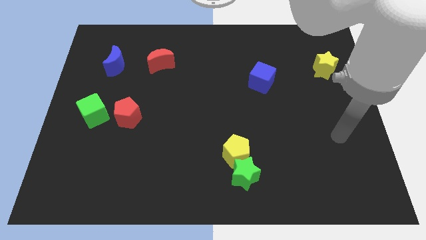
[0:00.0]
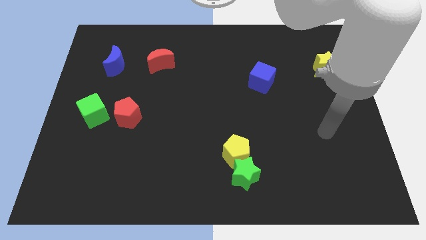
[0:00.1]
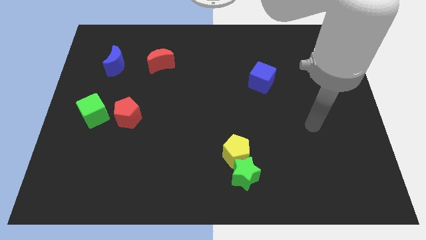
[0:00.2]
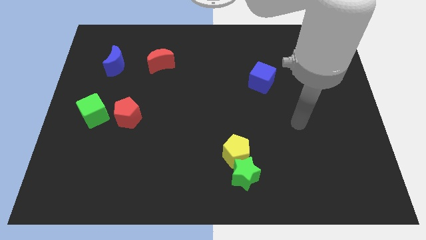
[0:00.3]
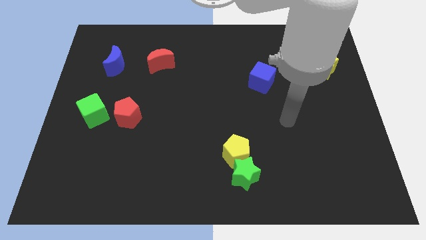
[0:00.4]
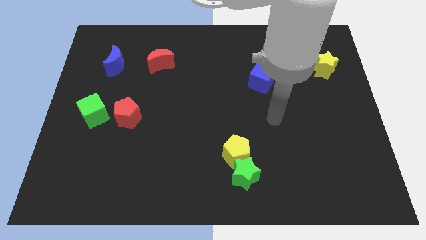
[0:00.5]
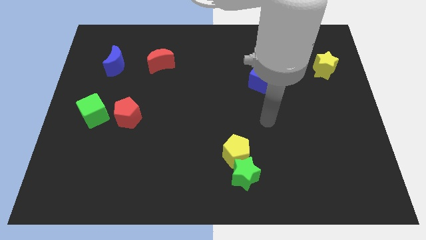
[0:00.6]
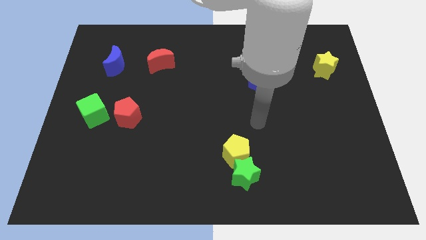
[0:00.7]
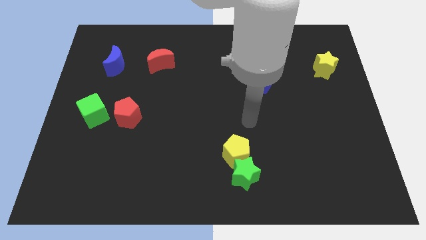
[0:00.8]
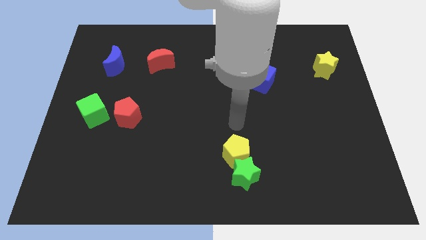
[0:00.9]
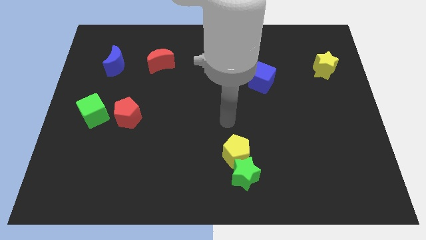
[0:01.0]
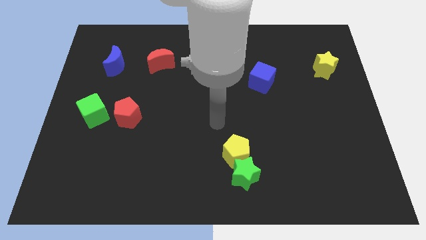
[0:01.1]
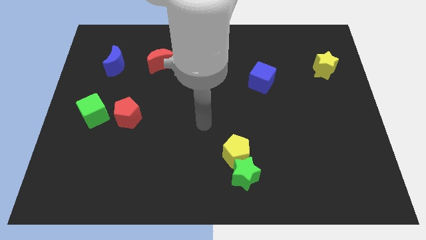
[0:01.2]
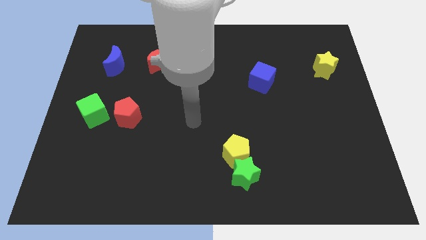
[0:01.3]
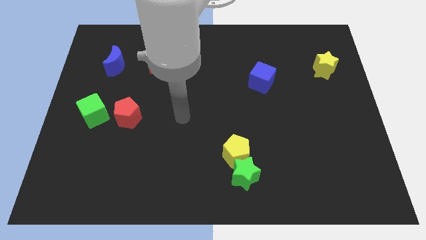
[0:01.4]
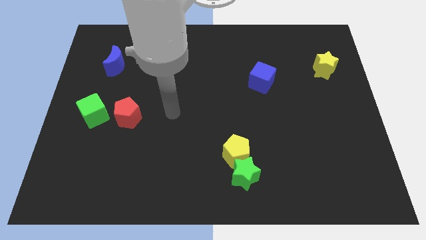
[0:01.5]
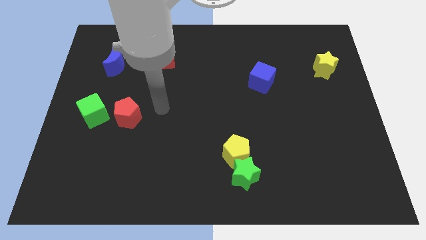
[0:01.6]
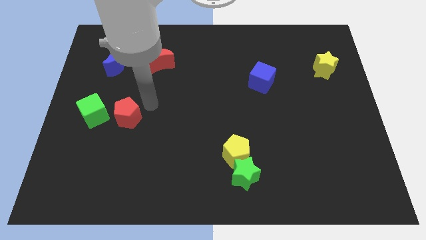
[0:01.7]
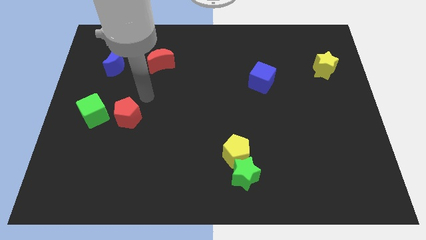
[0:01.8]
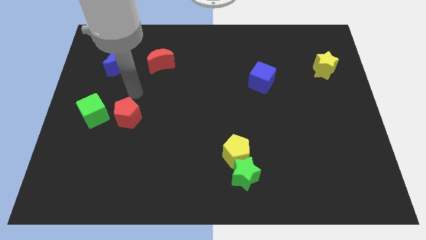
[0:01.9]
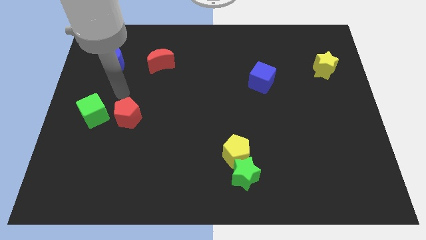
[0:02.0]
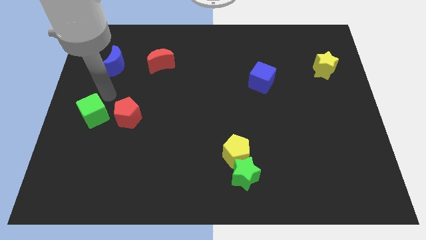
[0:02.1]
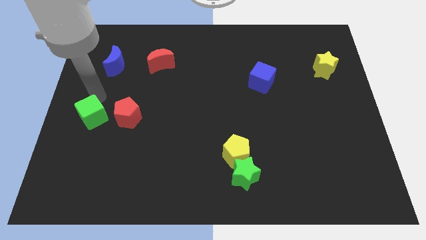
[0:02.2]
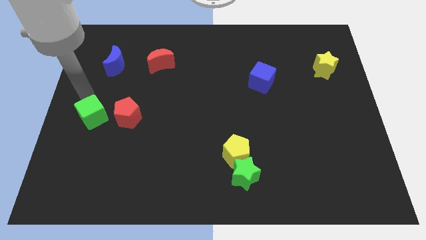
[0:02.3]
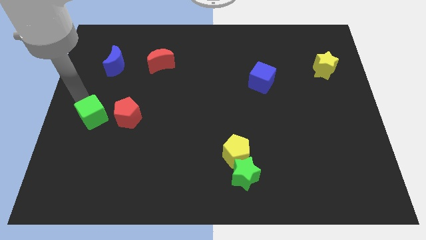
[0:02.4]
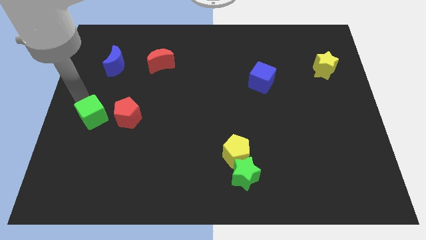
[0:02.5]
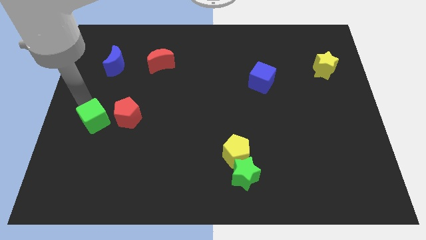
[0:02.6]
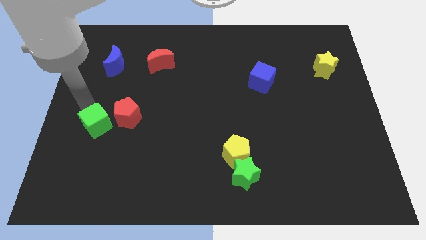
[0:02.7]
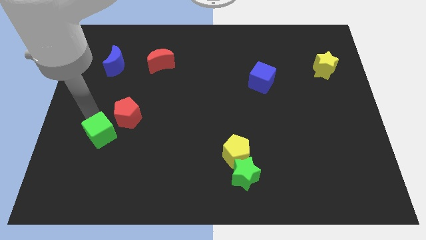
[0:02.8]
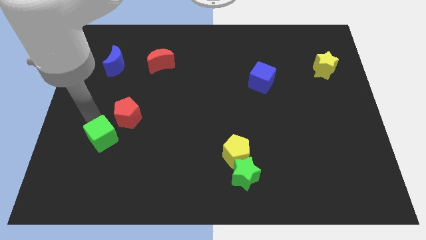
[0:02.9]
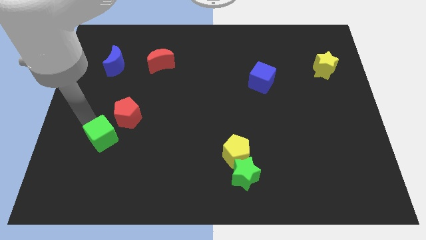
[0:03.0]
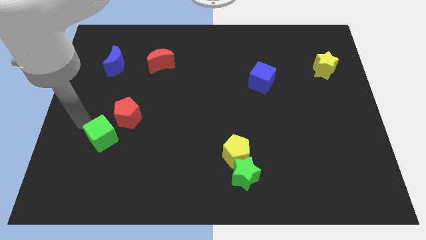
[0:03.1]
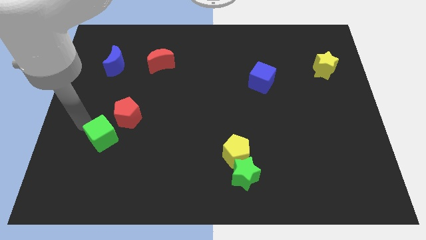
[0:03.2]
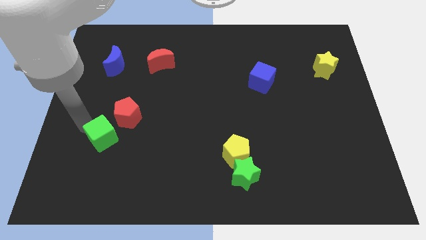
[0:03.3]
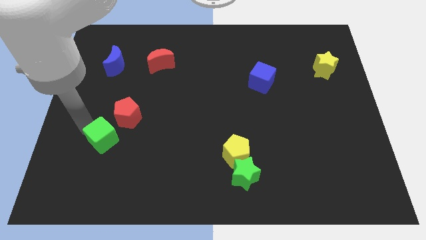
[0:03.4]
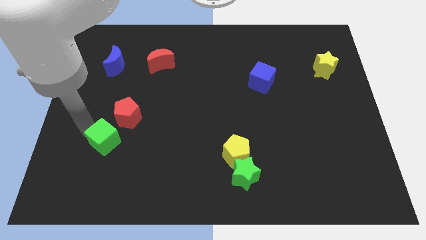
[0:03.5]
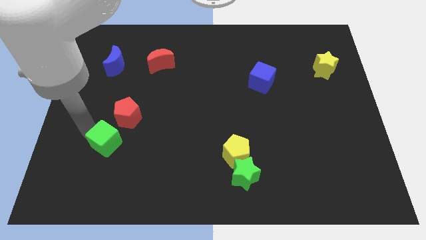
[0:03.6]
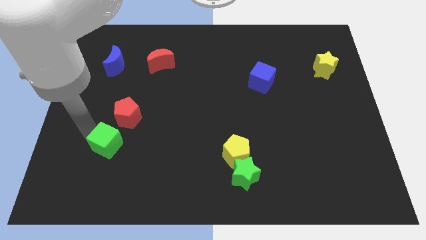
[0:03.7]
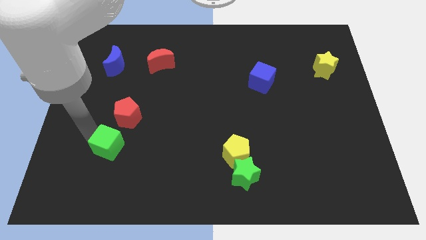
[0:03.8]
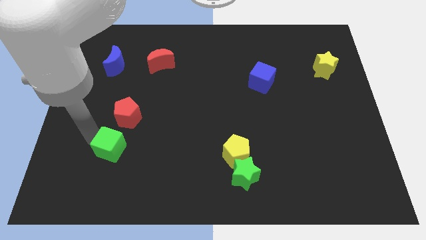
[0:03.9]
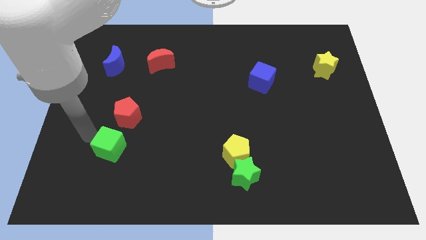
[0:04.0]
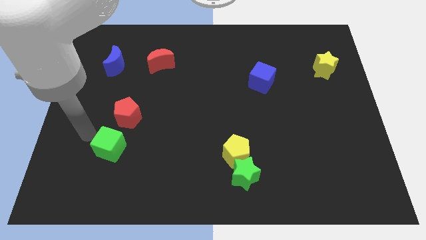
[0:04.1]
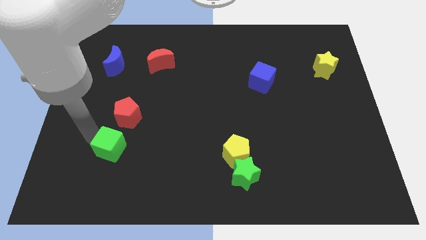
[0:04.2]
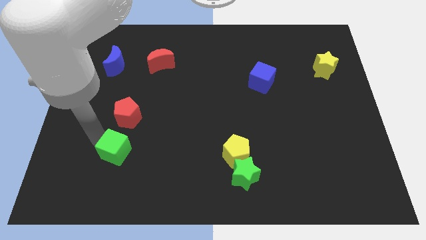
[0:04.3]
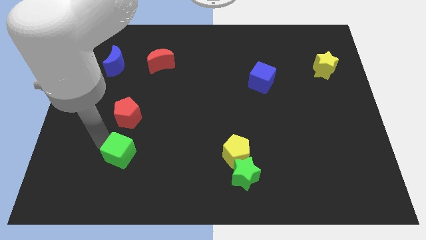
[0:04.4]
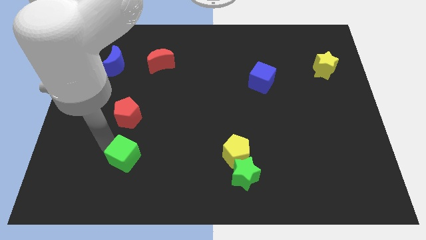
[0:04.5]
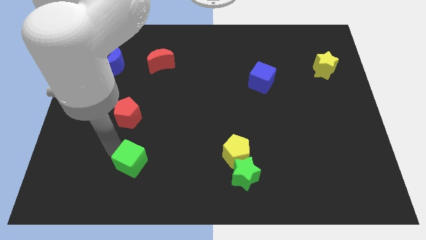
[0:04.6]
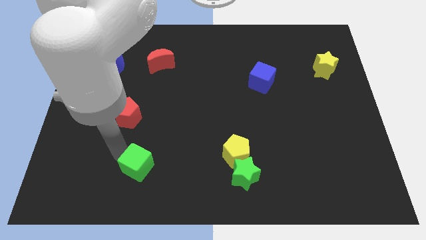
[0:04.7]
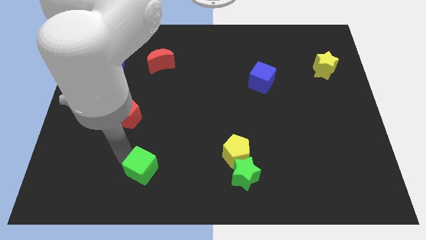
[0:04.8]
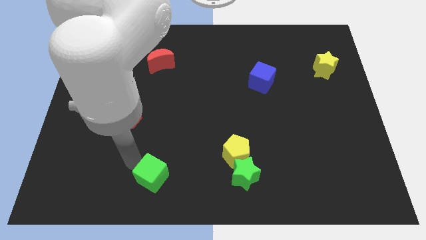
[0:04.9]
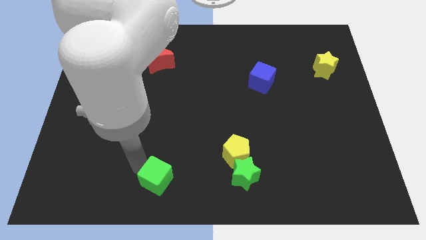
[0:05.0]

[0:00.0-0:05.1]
put the green cube to the bottom side

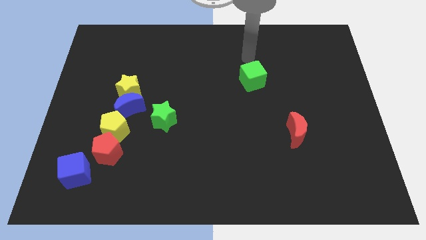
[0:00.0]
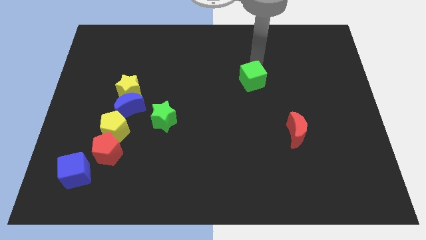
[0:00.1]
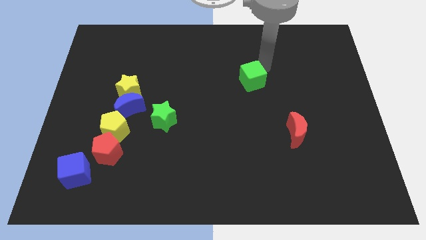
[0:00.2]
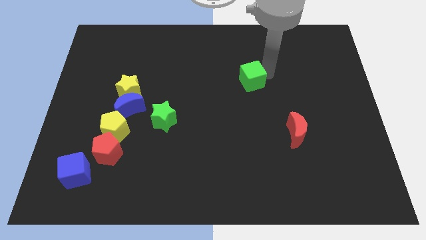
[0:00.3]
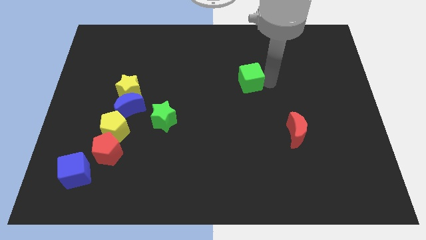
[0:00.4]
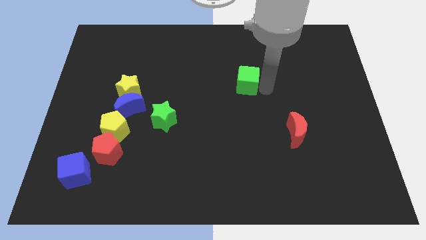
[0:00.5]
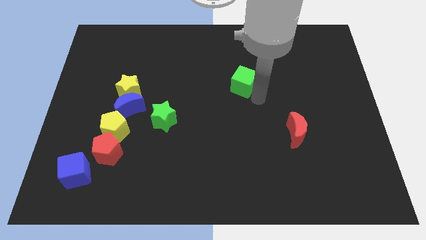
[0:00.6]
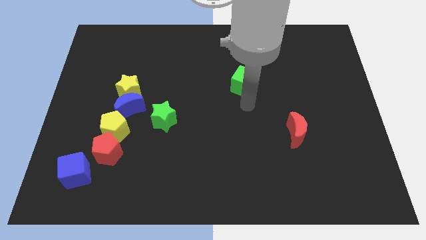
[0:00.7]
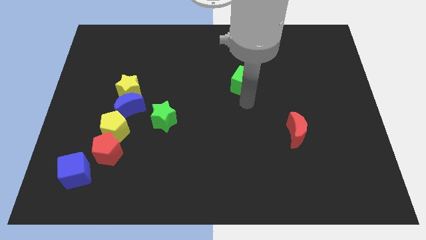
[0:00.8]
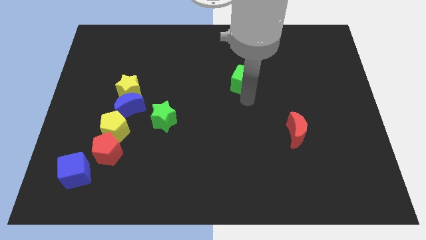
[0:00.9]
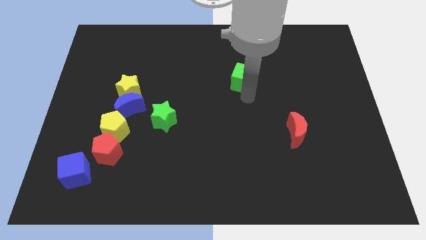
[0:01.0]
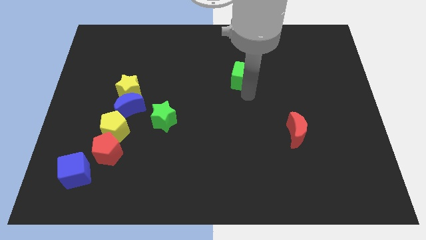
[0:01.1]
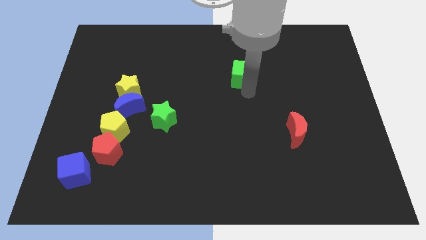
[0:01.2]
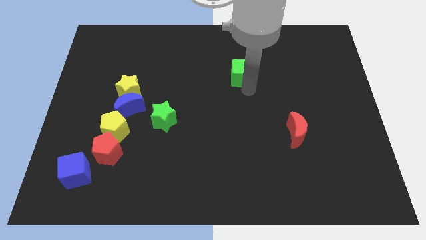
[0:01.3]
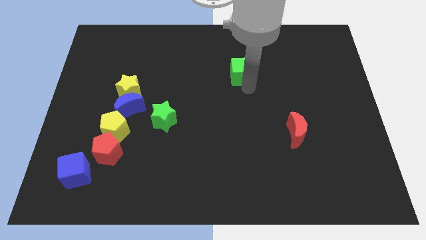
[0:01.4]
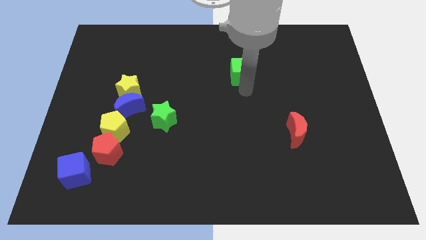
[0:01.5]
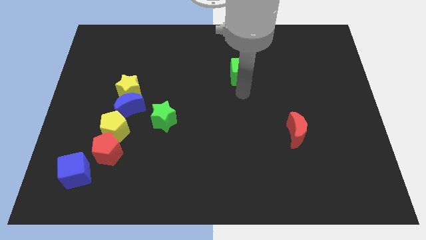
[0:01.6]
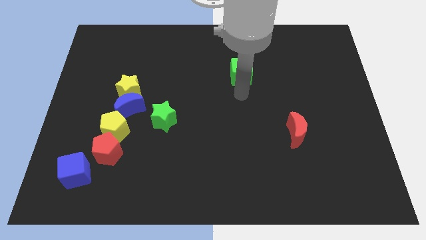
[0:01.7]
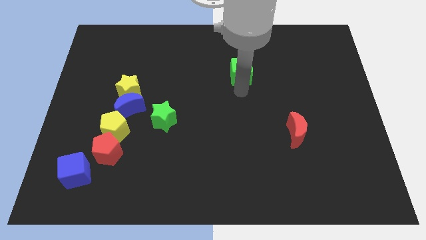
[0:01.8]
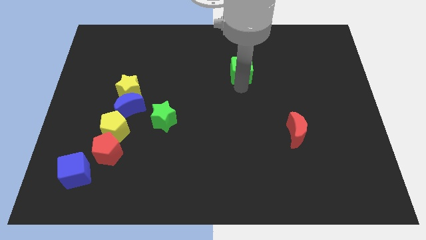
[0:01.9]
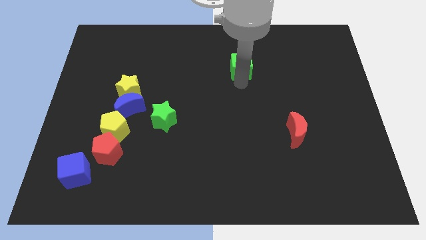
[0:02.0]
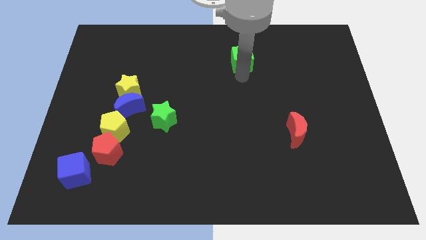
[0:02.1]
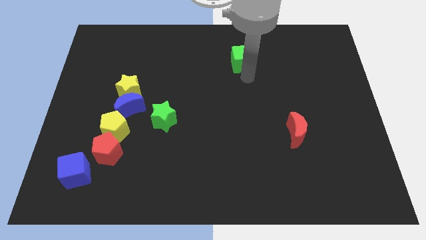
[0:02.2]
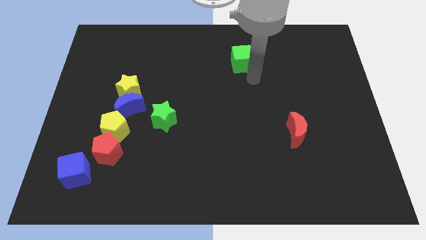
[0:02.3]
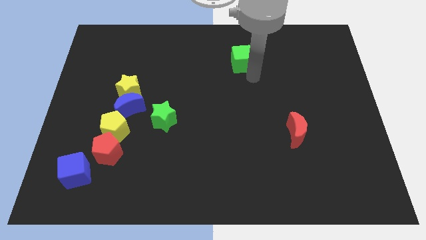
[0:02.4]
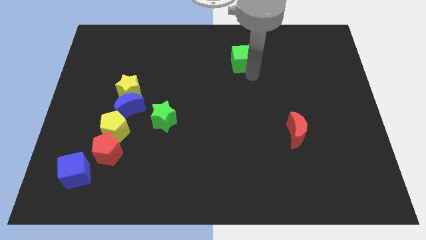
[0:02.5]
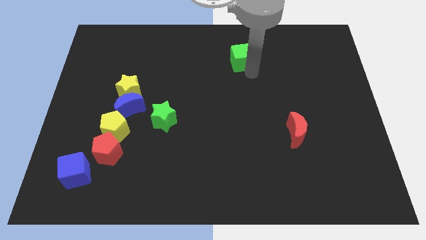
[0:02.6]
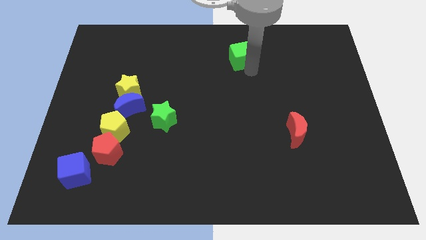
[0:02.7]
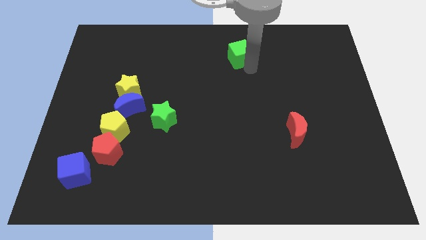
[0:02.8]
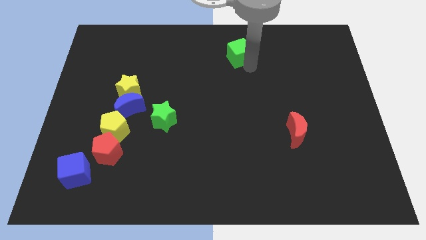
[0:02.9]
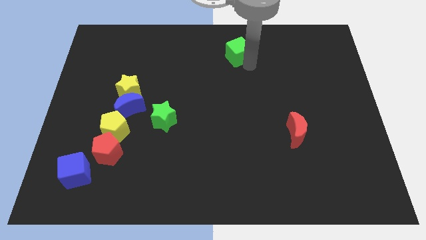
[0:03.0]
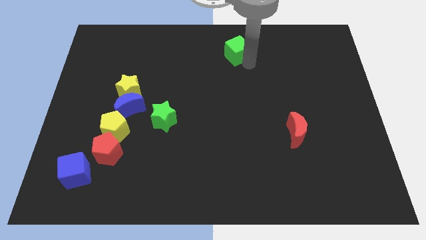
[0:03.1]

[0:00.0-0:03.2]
put the green cube to the towards your base
